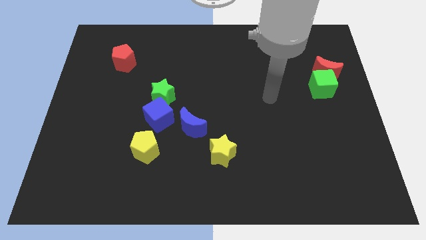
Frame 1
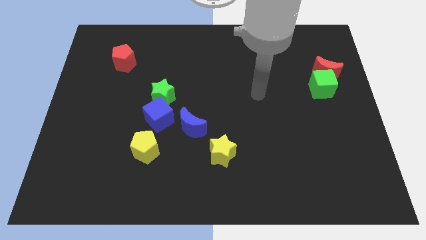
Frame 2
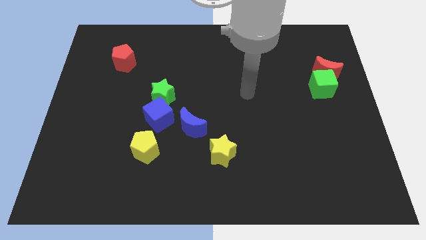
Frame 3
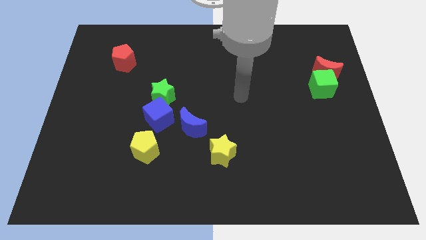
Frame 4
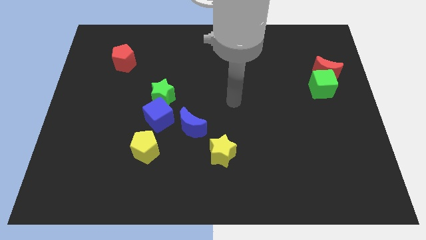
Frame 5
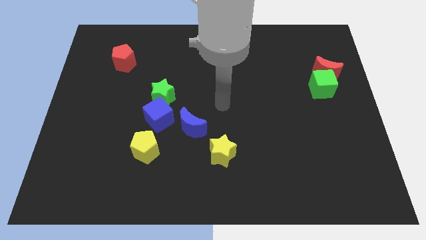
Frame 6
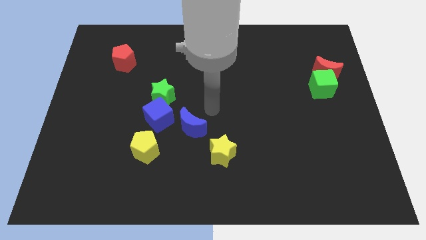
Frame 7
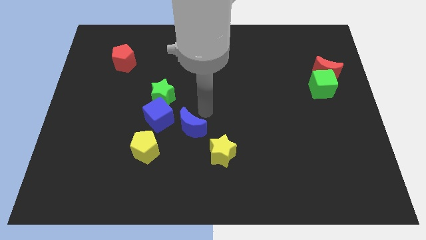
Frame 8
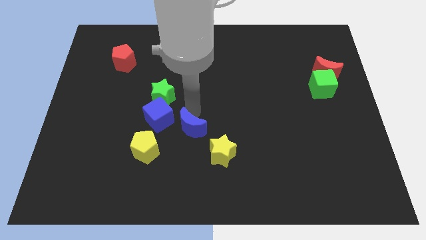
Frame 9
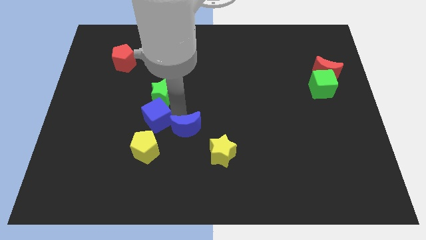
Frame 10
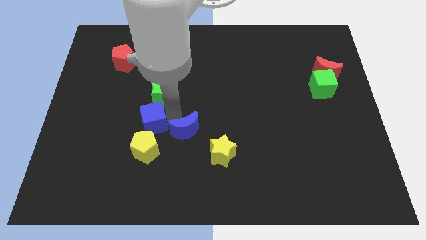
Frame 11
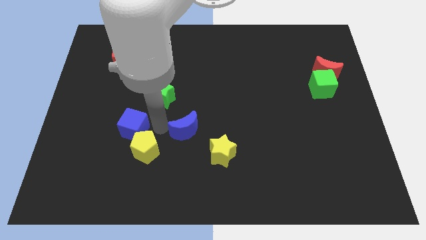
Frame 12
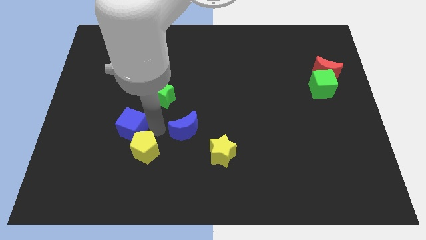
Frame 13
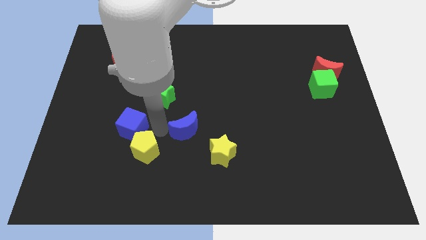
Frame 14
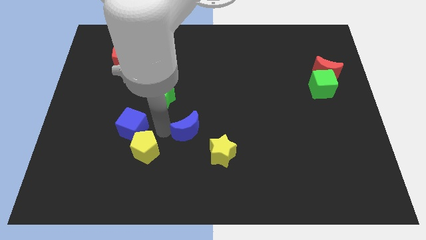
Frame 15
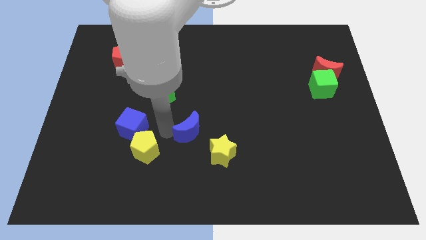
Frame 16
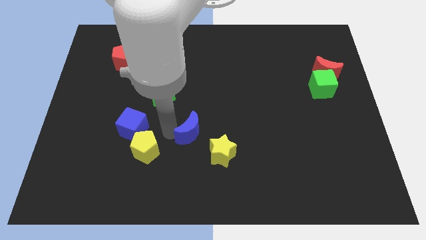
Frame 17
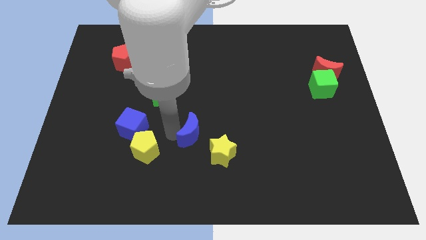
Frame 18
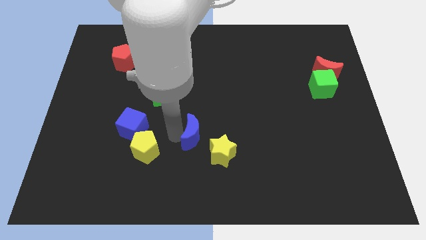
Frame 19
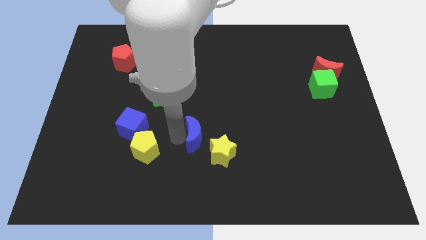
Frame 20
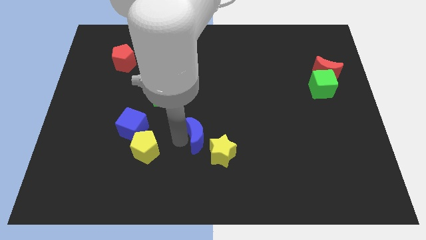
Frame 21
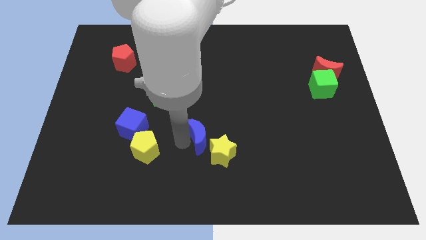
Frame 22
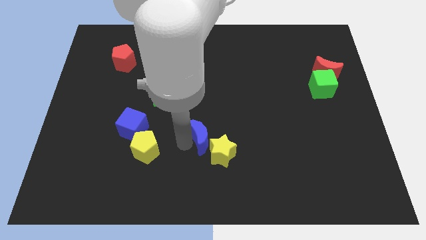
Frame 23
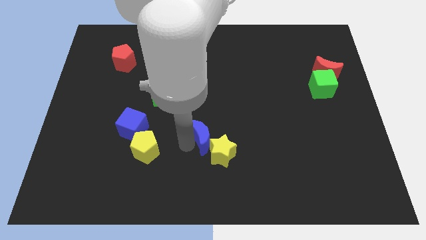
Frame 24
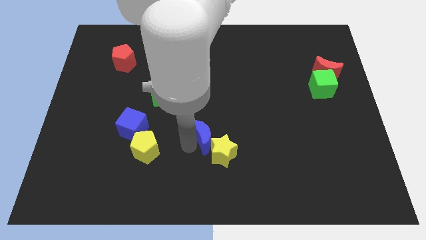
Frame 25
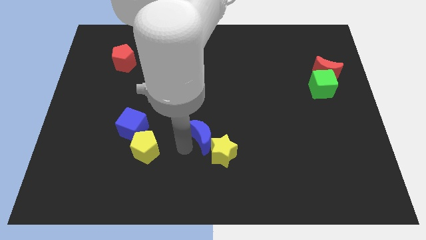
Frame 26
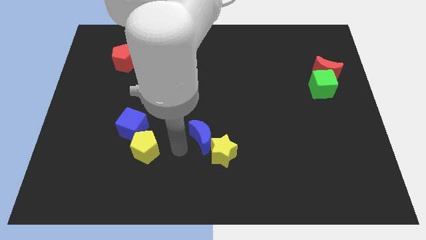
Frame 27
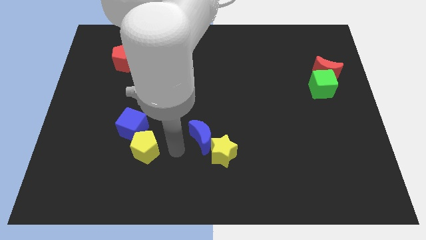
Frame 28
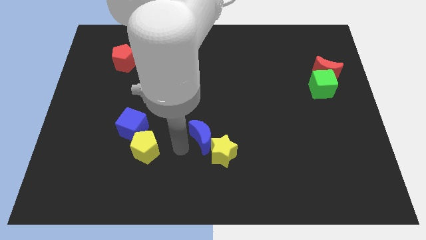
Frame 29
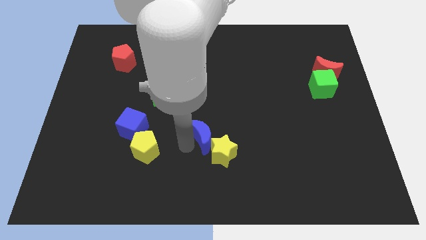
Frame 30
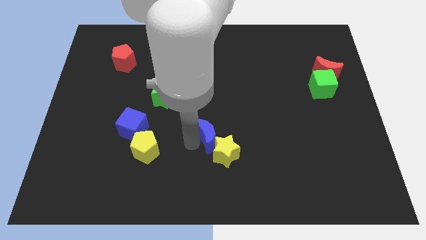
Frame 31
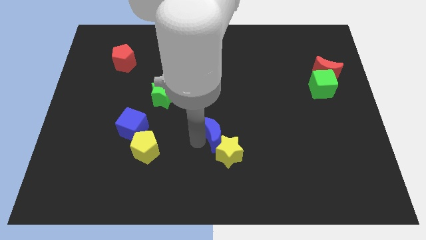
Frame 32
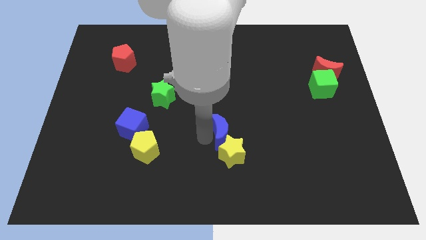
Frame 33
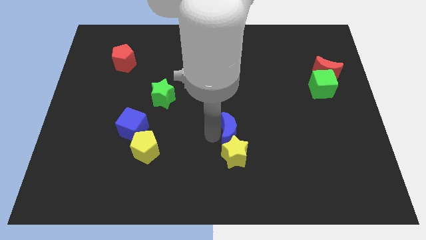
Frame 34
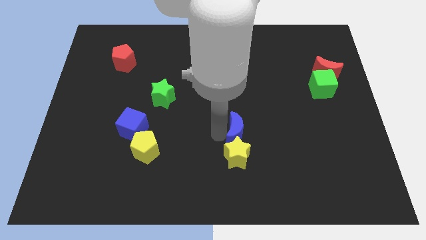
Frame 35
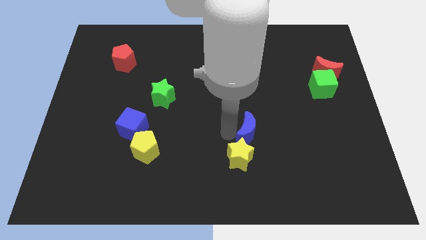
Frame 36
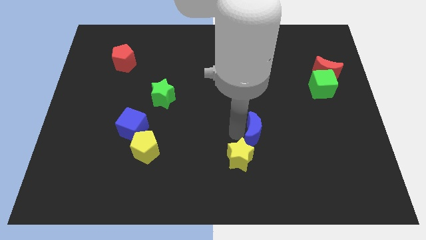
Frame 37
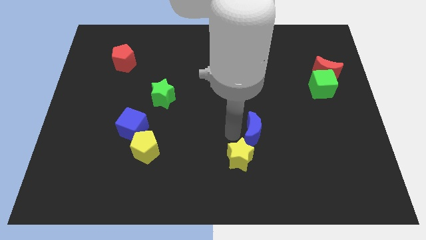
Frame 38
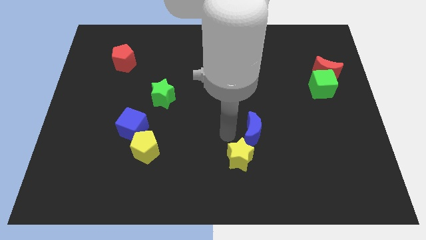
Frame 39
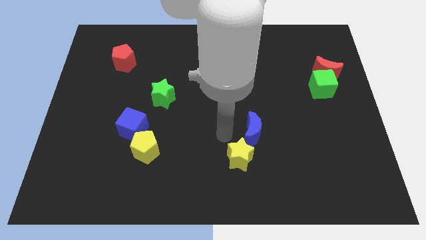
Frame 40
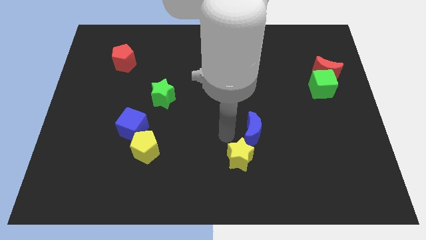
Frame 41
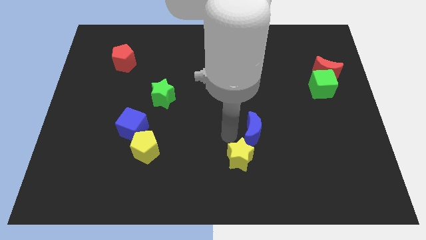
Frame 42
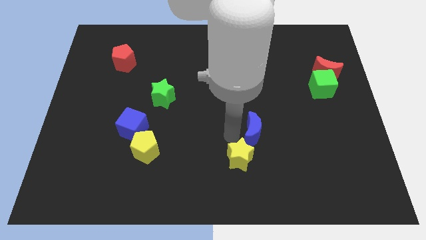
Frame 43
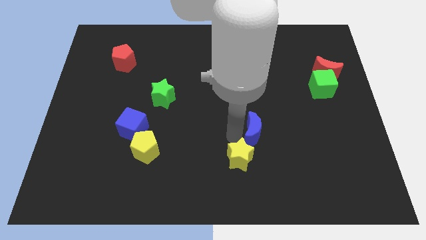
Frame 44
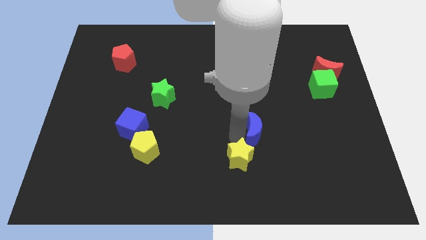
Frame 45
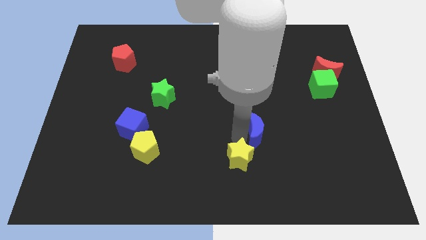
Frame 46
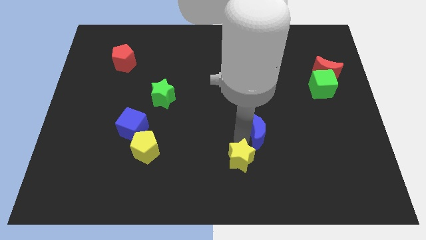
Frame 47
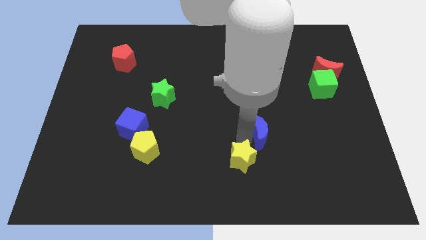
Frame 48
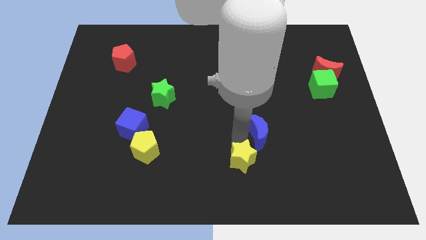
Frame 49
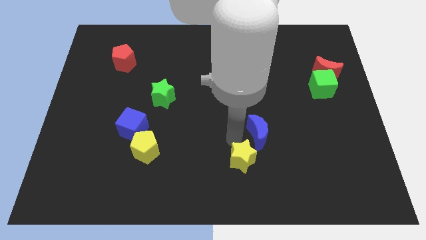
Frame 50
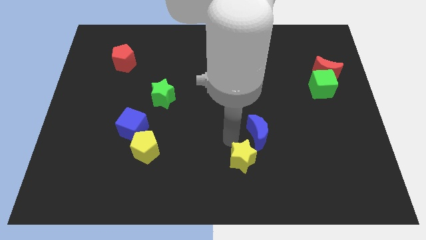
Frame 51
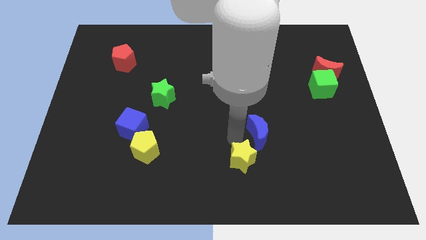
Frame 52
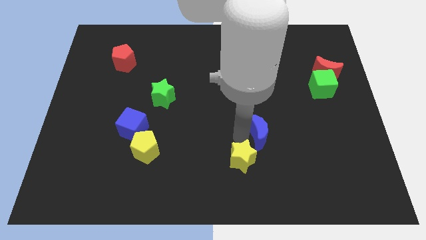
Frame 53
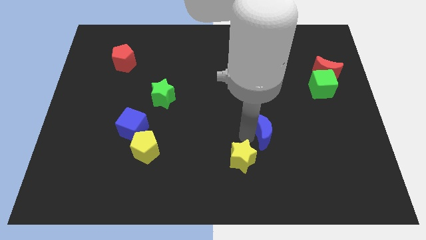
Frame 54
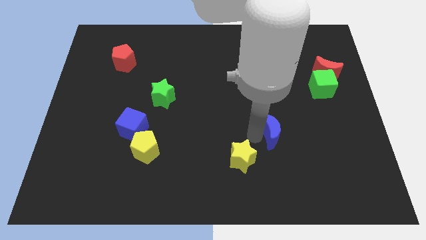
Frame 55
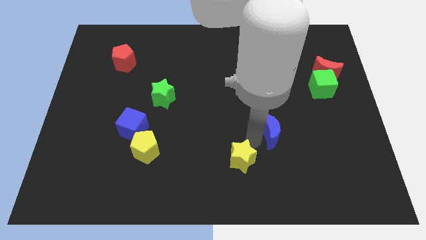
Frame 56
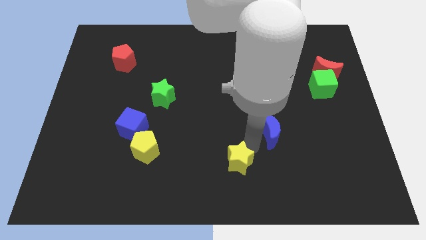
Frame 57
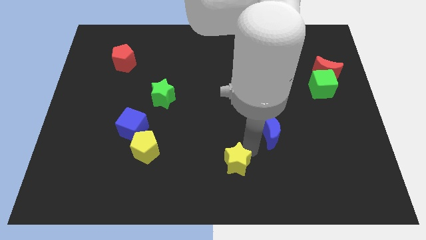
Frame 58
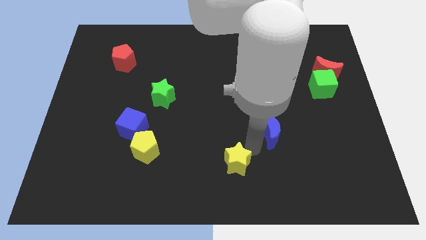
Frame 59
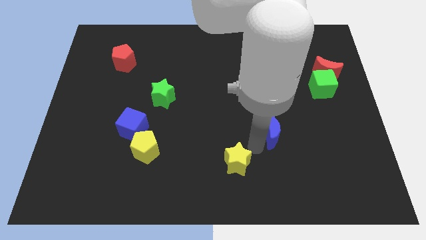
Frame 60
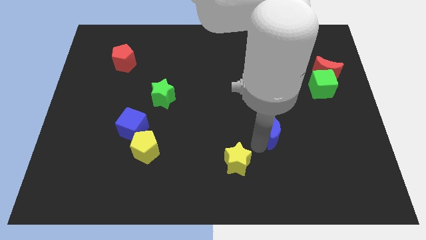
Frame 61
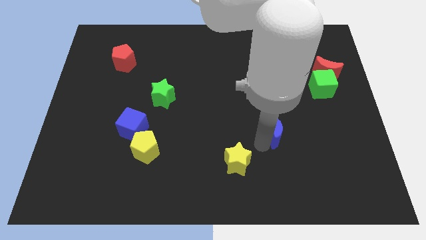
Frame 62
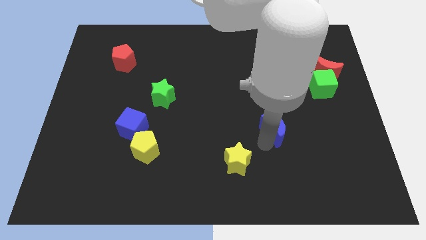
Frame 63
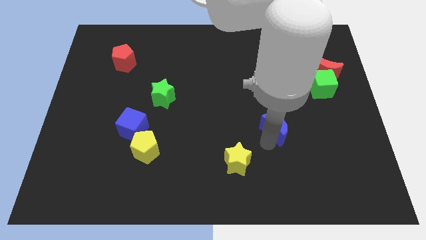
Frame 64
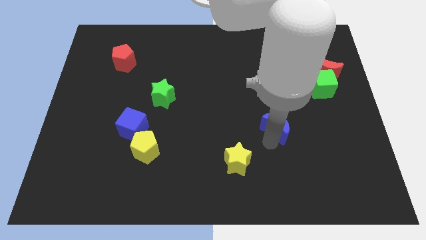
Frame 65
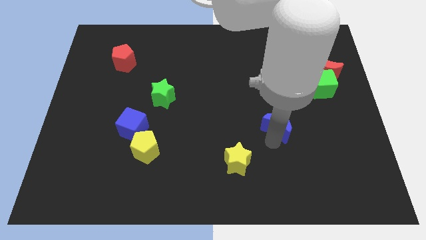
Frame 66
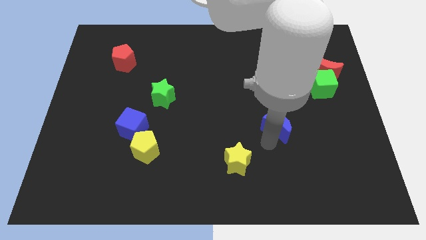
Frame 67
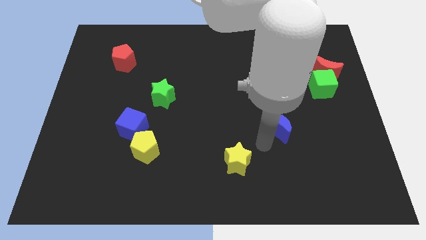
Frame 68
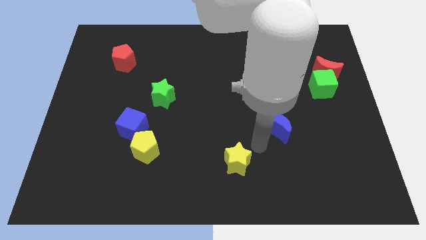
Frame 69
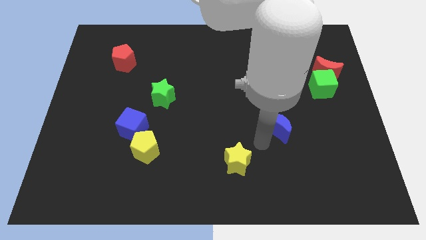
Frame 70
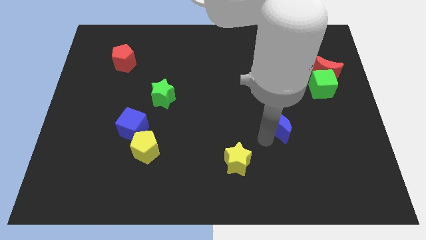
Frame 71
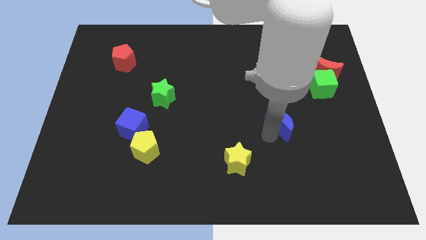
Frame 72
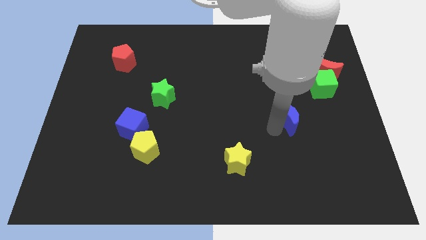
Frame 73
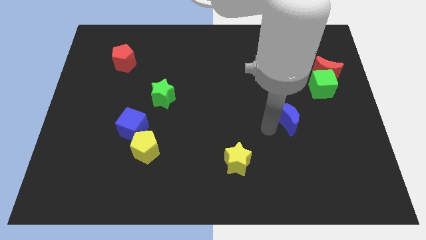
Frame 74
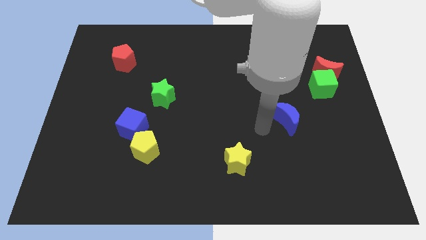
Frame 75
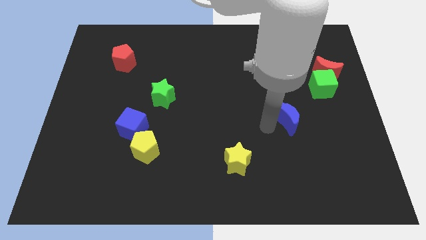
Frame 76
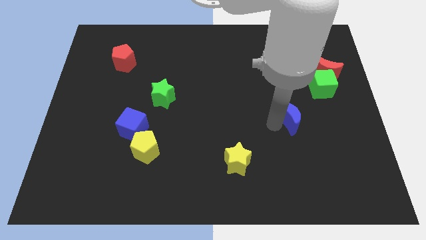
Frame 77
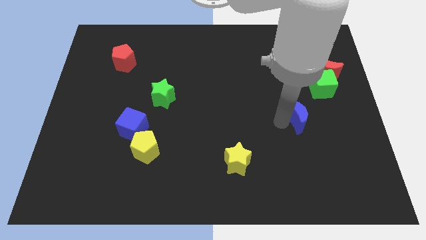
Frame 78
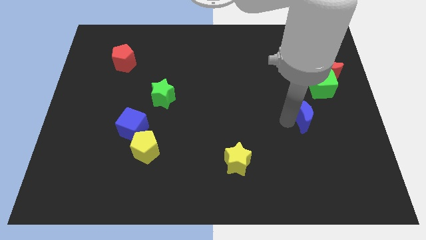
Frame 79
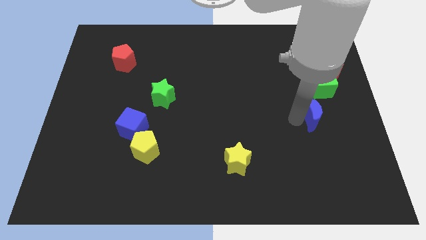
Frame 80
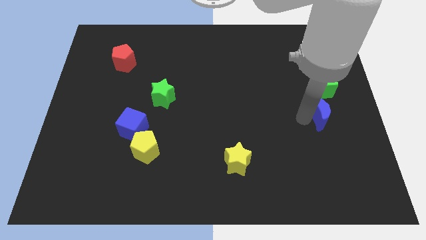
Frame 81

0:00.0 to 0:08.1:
move the blue moon to the bottom of the red moon
